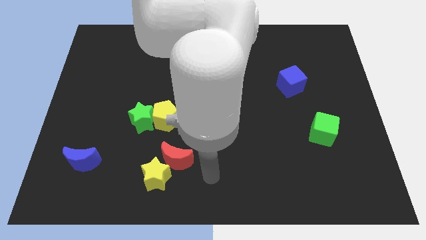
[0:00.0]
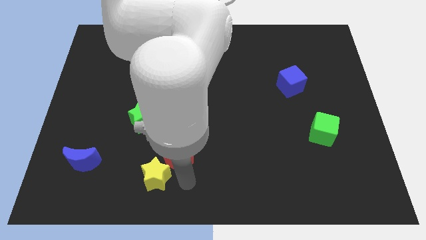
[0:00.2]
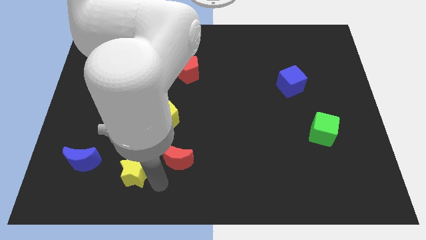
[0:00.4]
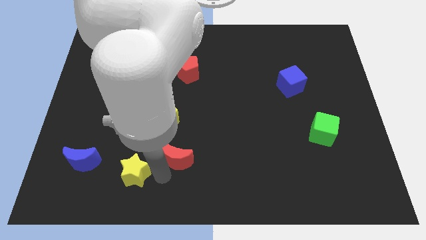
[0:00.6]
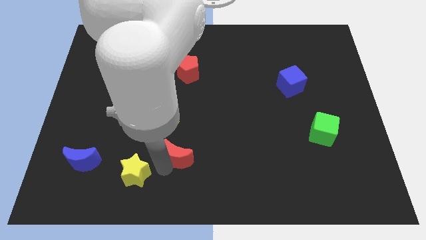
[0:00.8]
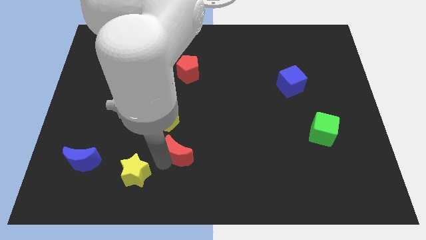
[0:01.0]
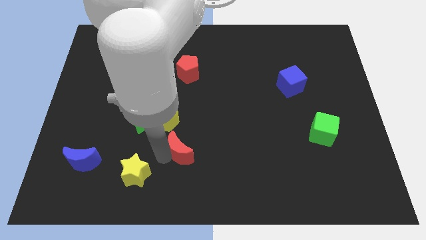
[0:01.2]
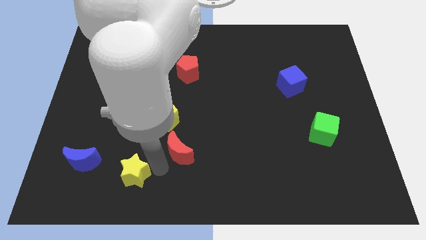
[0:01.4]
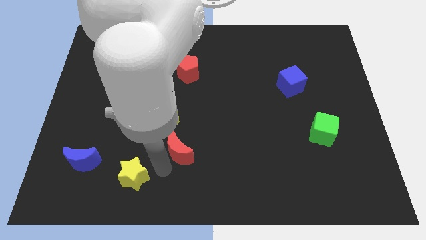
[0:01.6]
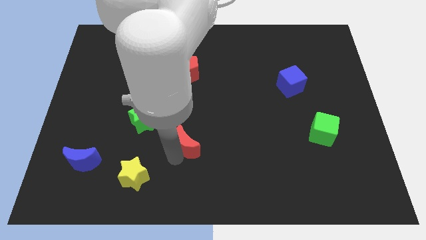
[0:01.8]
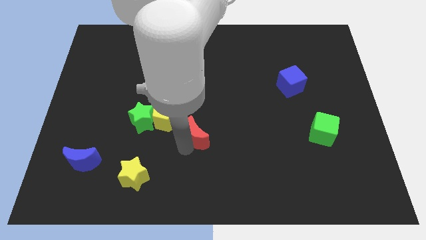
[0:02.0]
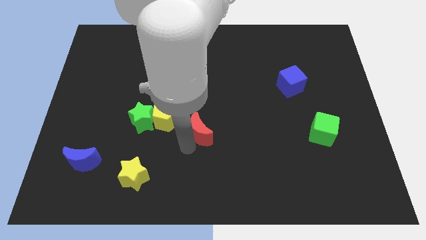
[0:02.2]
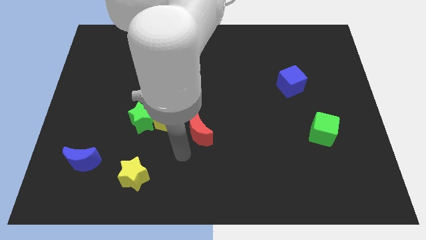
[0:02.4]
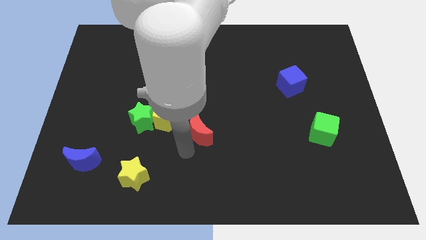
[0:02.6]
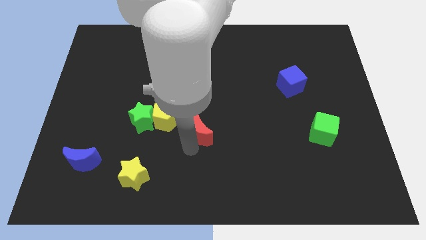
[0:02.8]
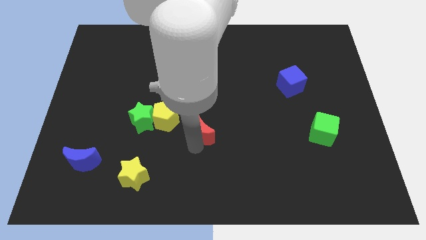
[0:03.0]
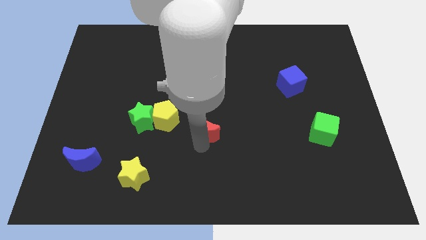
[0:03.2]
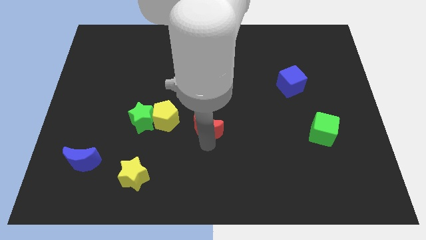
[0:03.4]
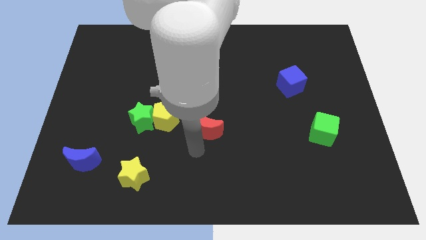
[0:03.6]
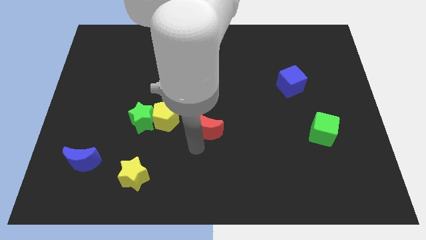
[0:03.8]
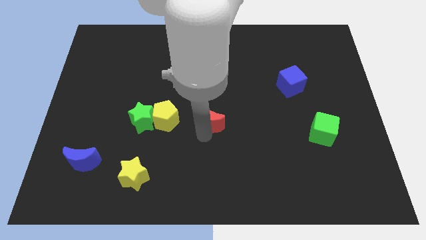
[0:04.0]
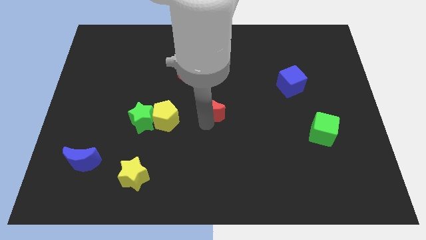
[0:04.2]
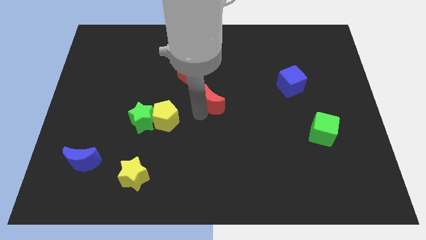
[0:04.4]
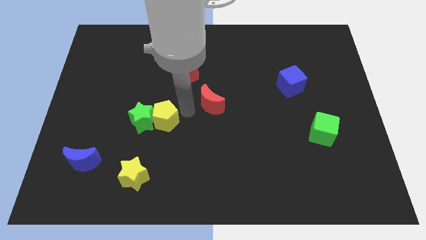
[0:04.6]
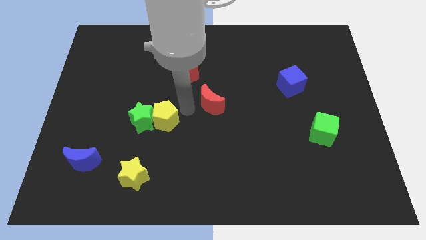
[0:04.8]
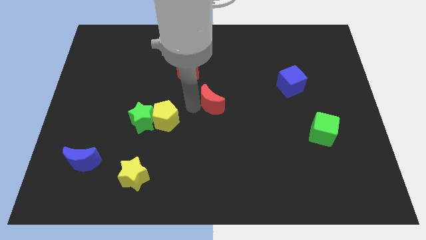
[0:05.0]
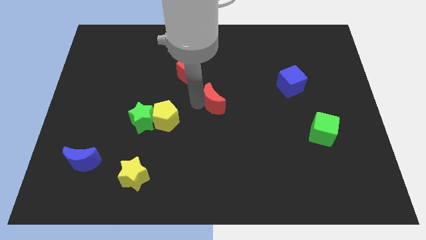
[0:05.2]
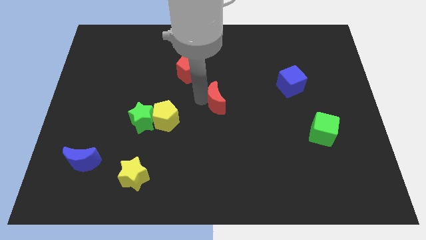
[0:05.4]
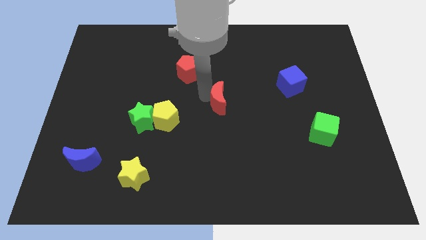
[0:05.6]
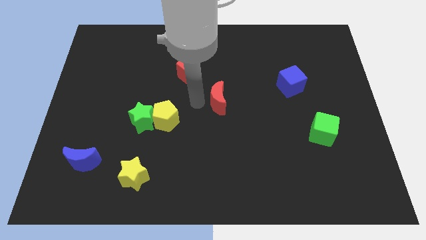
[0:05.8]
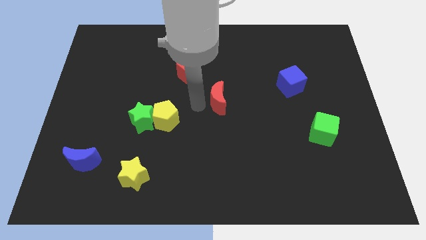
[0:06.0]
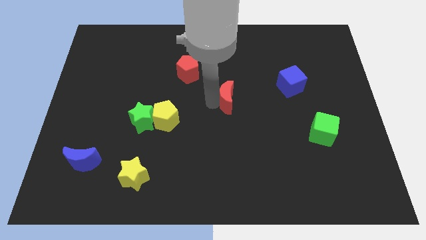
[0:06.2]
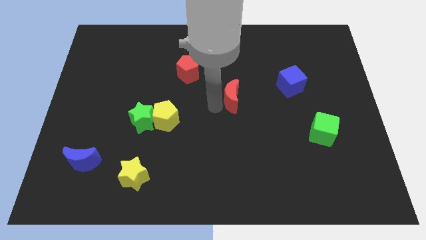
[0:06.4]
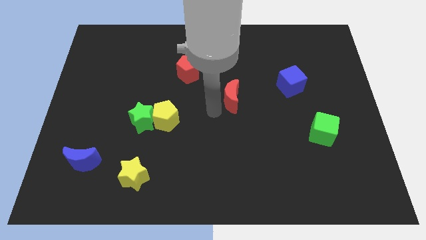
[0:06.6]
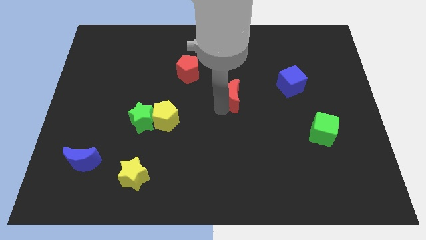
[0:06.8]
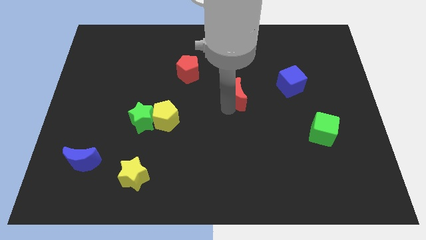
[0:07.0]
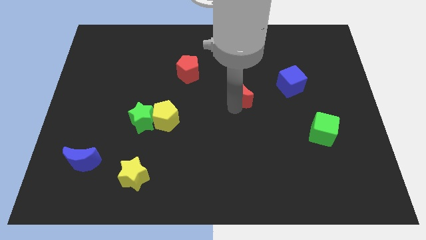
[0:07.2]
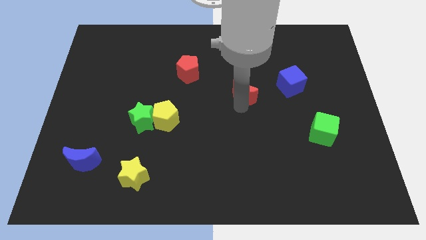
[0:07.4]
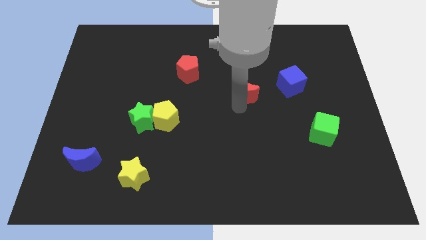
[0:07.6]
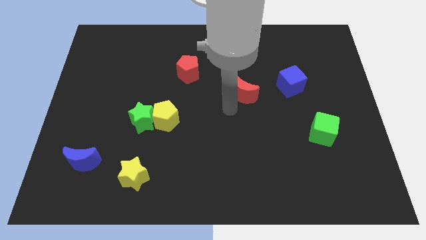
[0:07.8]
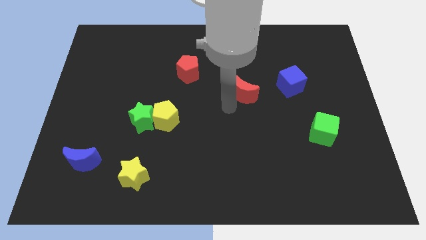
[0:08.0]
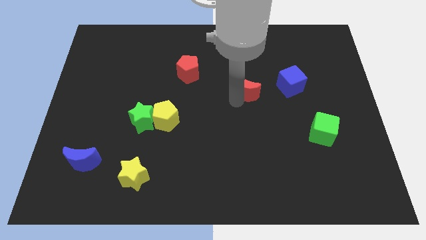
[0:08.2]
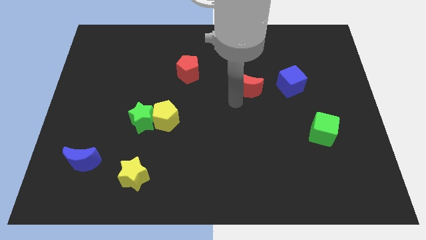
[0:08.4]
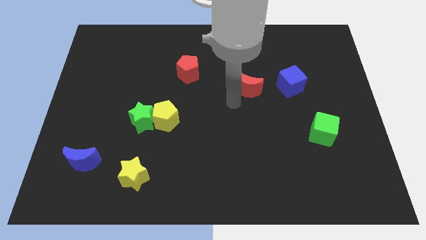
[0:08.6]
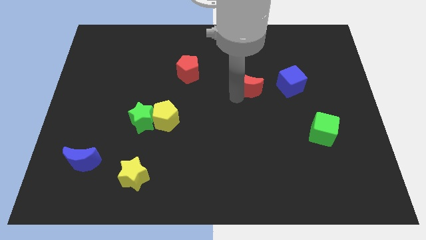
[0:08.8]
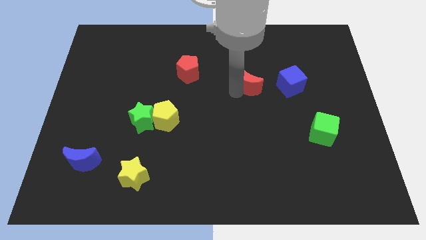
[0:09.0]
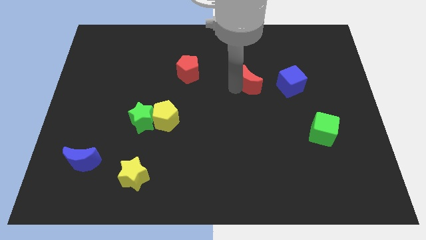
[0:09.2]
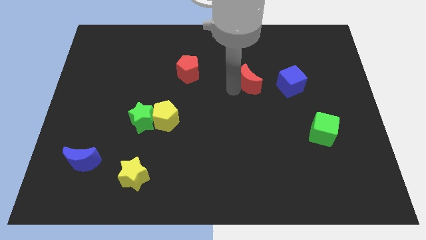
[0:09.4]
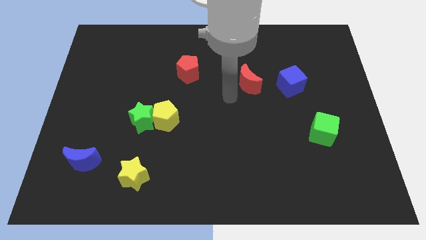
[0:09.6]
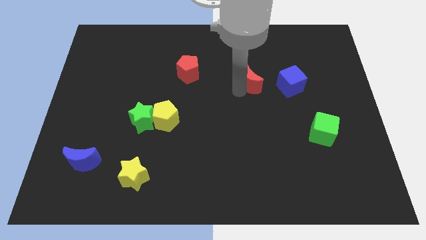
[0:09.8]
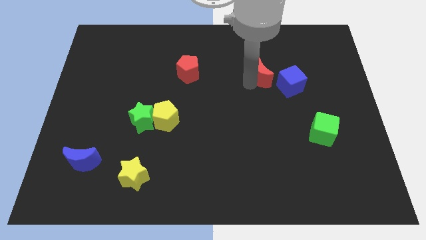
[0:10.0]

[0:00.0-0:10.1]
slide the red moon diagonally up and to the left of the blue cube

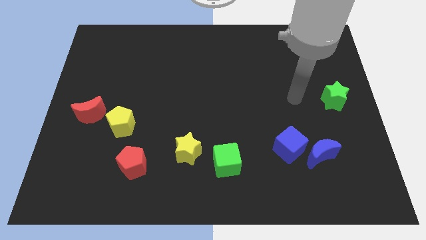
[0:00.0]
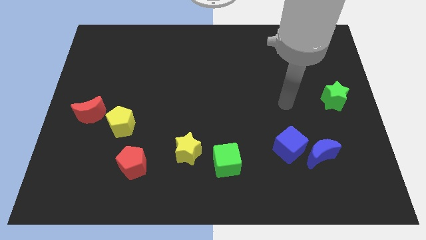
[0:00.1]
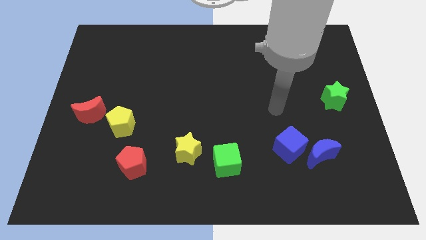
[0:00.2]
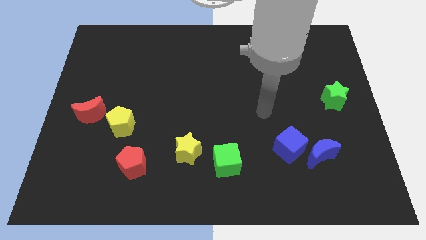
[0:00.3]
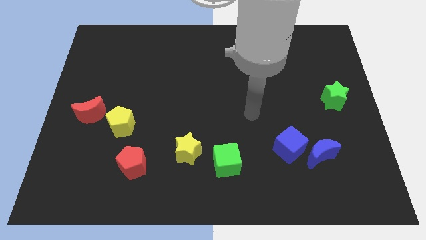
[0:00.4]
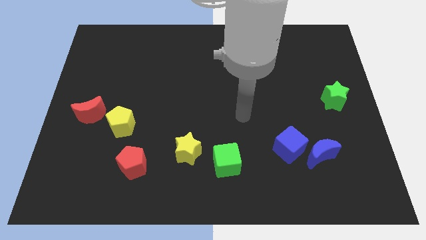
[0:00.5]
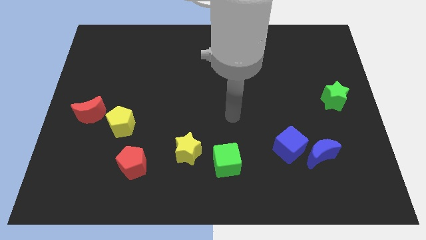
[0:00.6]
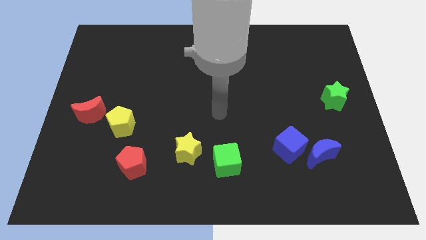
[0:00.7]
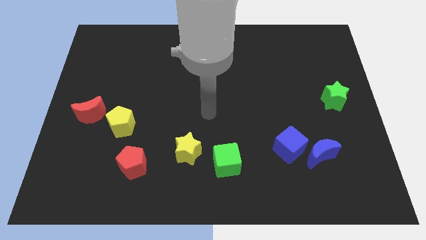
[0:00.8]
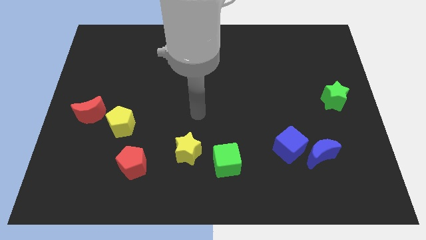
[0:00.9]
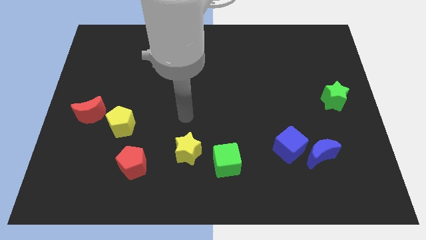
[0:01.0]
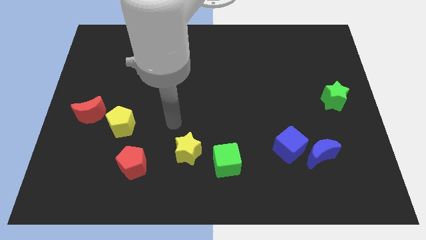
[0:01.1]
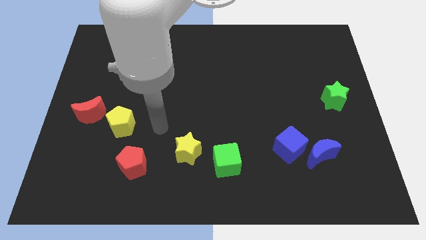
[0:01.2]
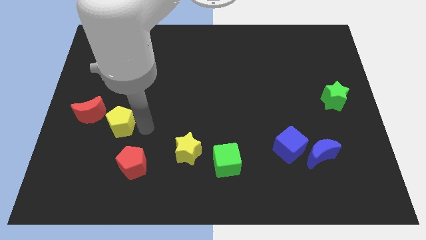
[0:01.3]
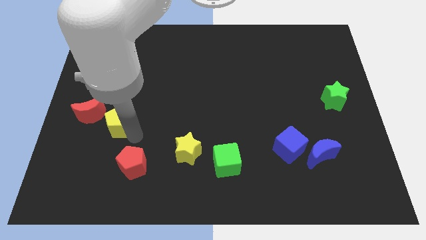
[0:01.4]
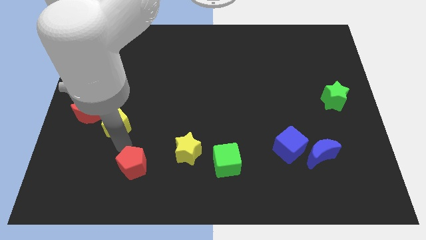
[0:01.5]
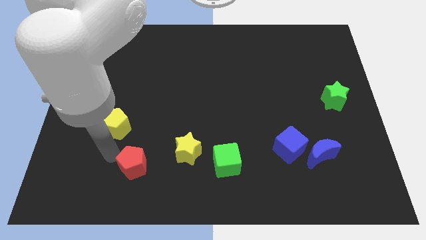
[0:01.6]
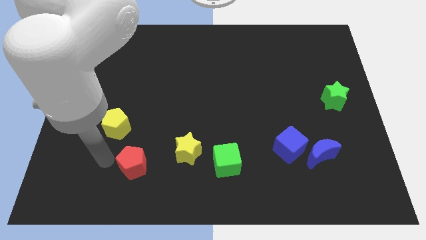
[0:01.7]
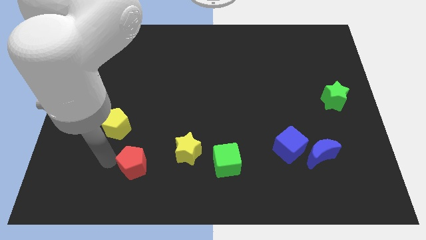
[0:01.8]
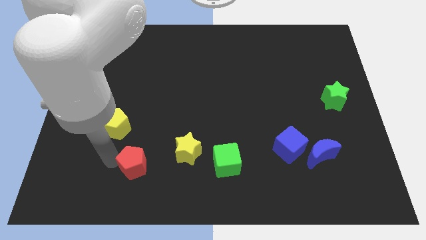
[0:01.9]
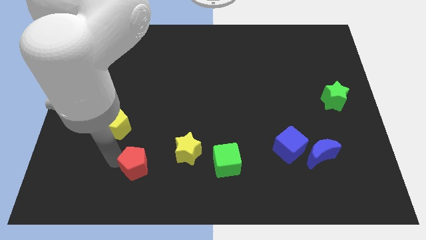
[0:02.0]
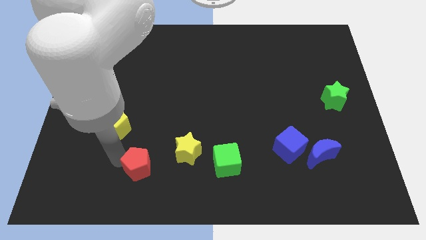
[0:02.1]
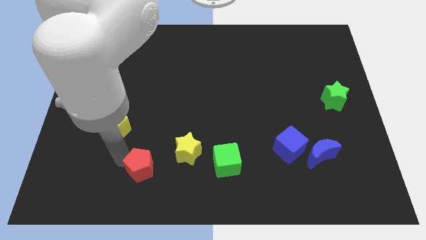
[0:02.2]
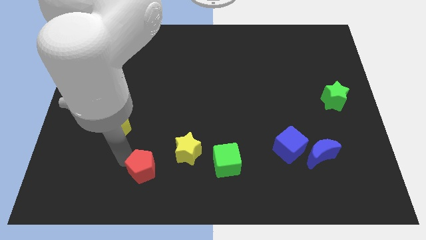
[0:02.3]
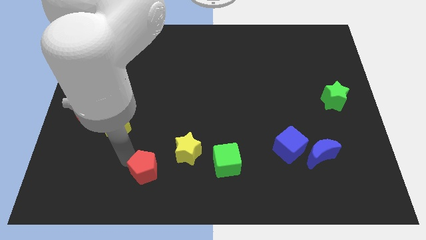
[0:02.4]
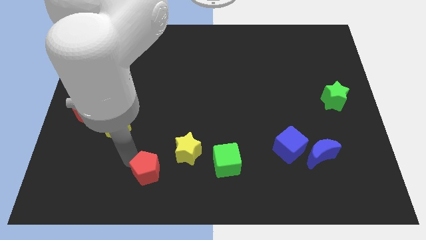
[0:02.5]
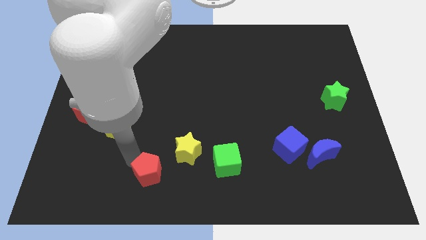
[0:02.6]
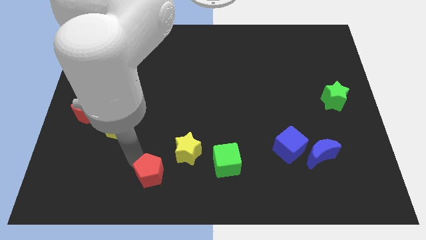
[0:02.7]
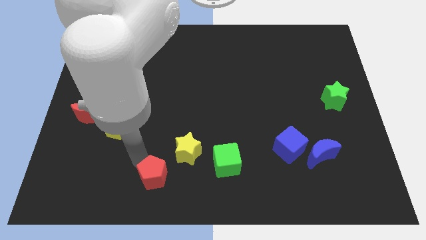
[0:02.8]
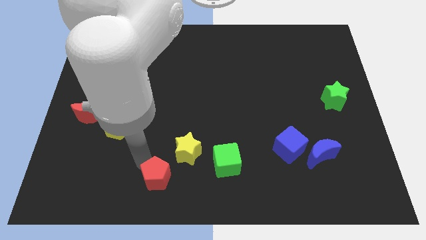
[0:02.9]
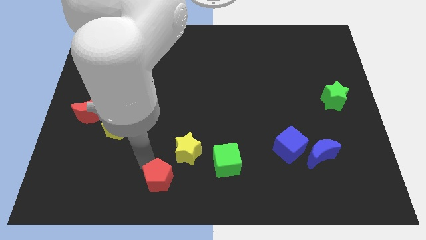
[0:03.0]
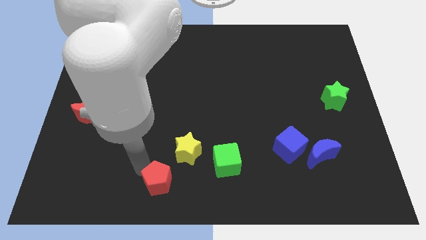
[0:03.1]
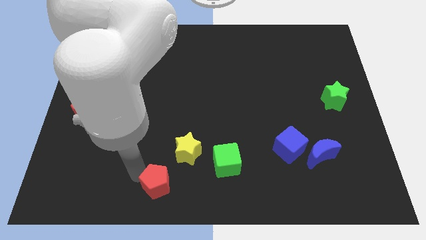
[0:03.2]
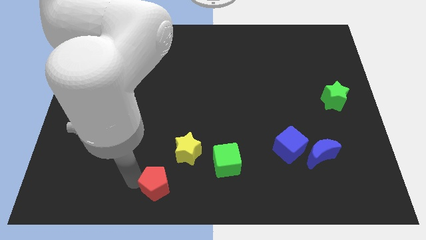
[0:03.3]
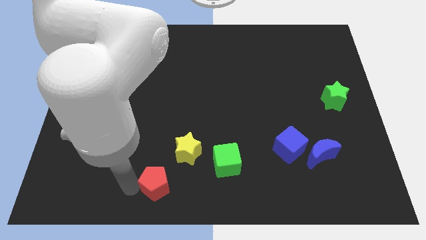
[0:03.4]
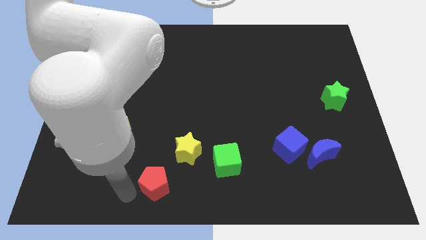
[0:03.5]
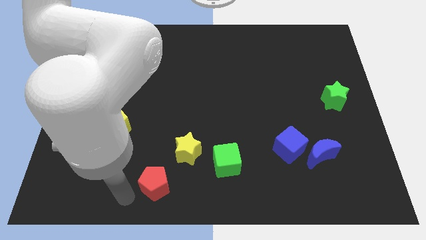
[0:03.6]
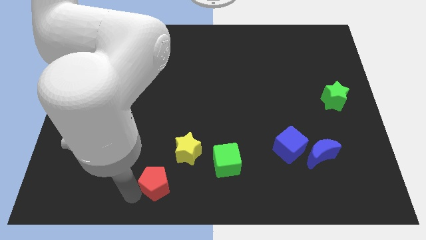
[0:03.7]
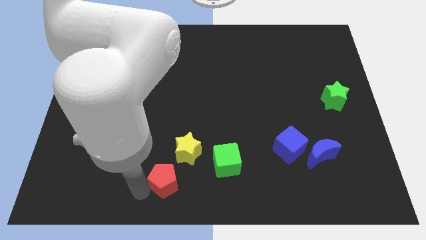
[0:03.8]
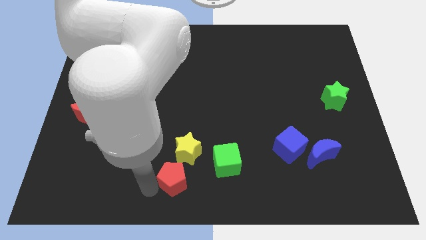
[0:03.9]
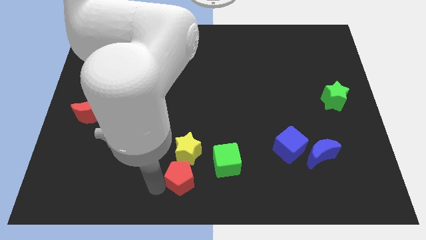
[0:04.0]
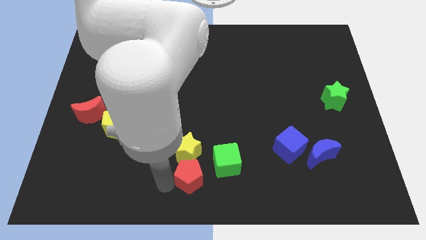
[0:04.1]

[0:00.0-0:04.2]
slide the red pentagon to the bottom right side of the yellow star
